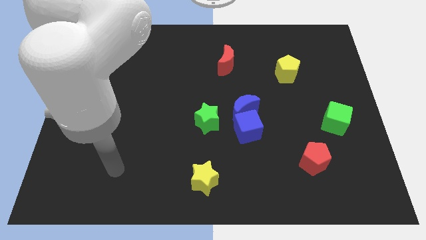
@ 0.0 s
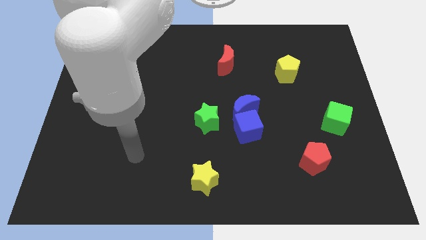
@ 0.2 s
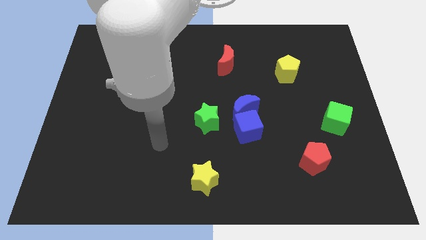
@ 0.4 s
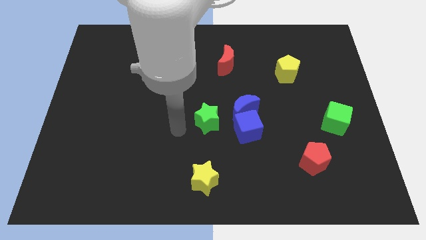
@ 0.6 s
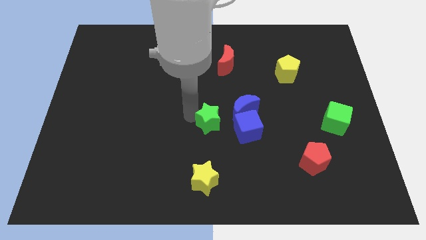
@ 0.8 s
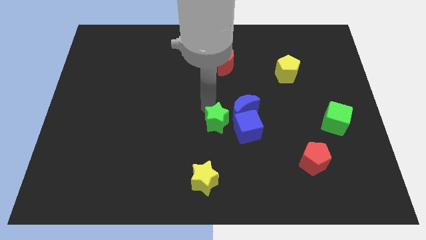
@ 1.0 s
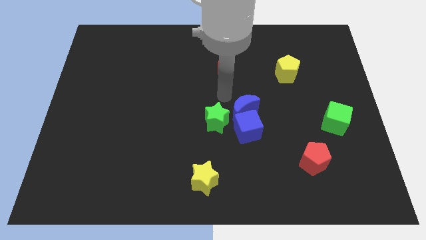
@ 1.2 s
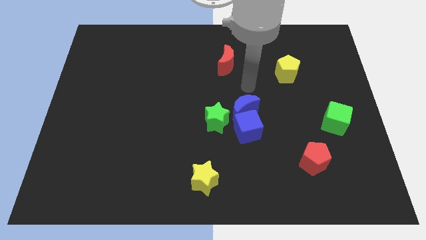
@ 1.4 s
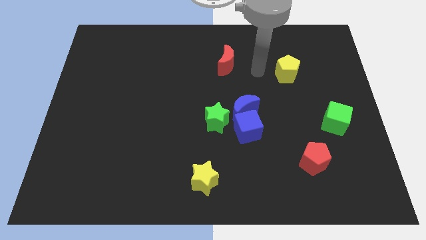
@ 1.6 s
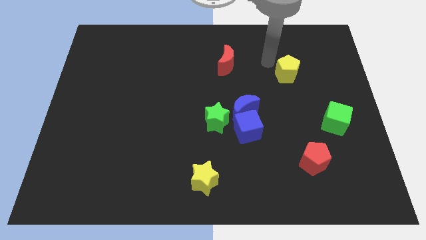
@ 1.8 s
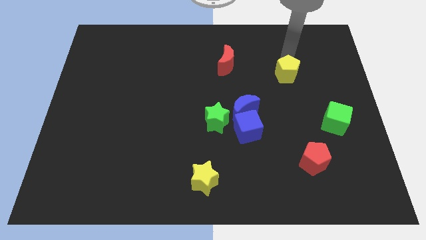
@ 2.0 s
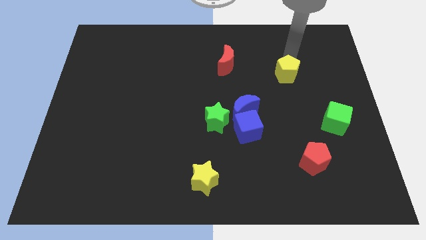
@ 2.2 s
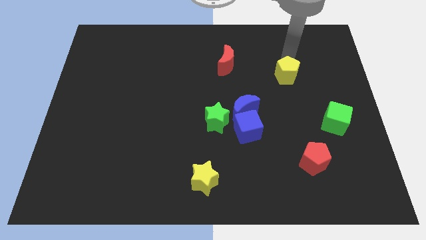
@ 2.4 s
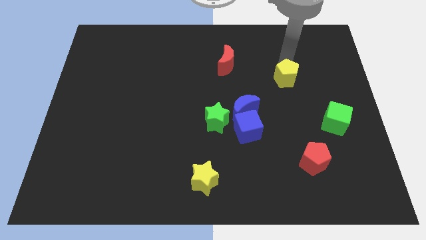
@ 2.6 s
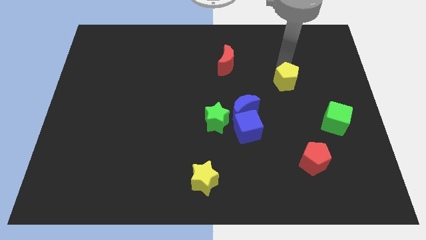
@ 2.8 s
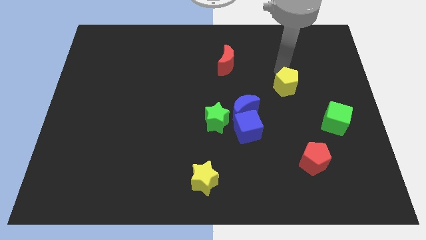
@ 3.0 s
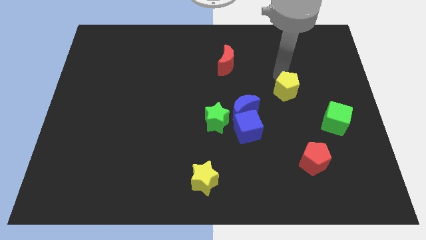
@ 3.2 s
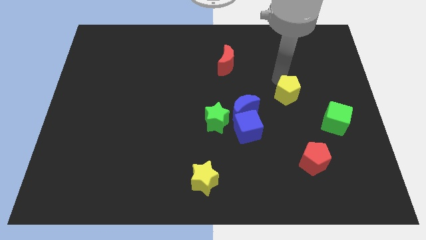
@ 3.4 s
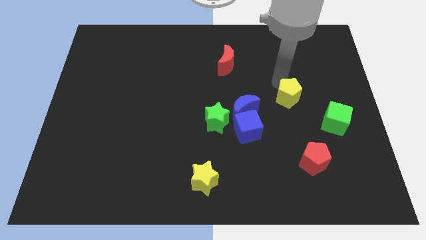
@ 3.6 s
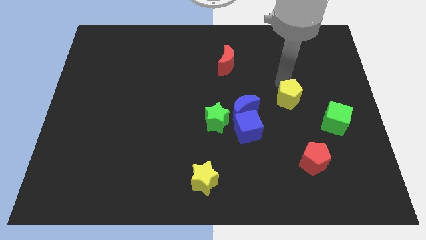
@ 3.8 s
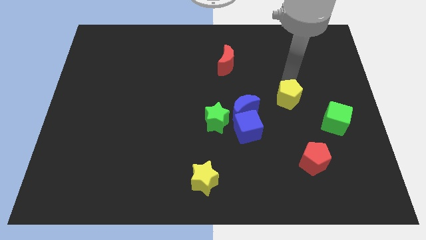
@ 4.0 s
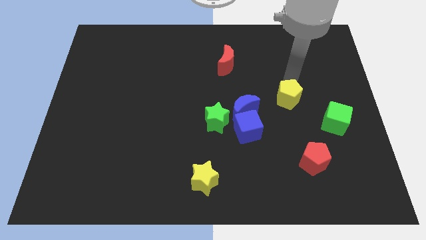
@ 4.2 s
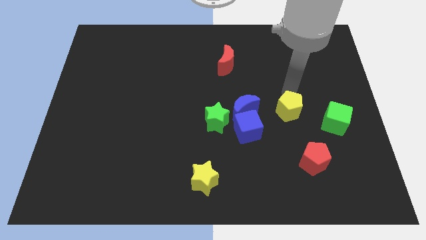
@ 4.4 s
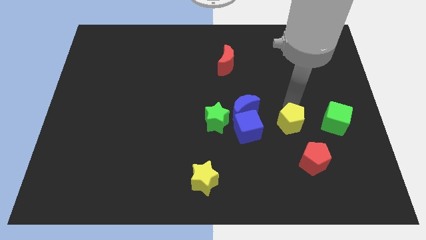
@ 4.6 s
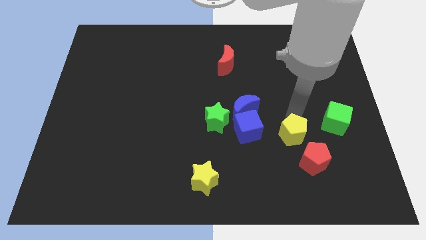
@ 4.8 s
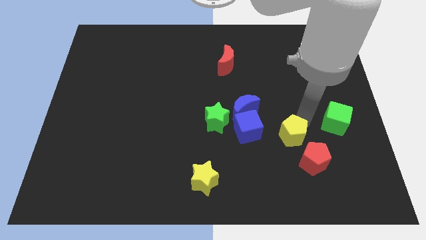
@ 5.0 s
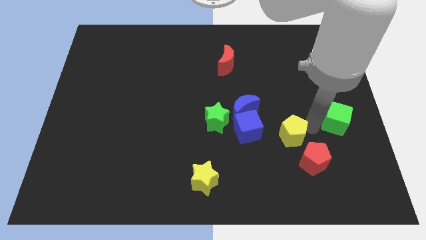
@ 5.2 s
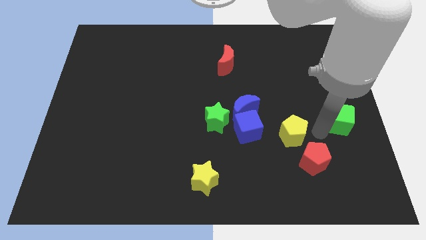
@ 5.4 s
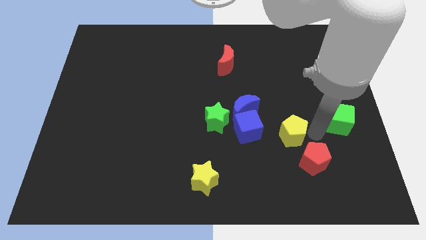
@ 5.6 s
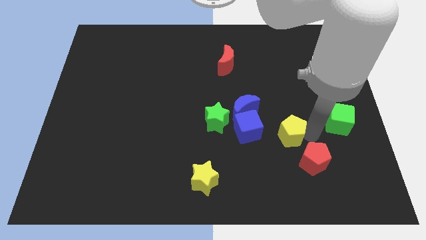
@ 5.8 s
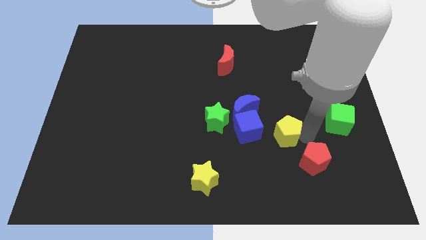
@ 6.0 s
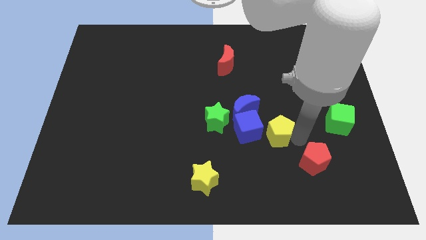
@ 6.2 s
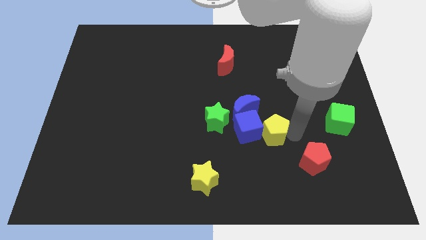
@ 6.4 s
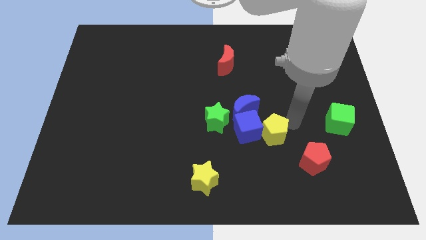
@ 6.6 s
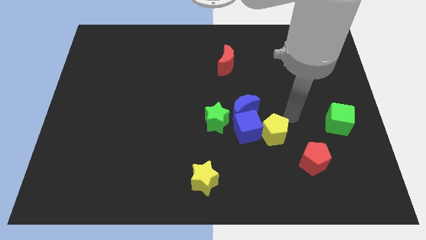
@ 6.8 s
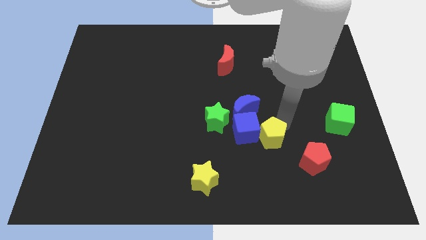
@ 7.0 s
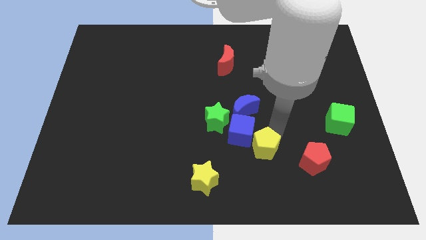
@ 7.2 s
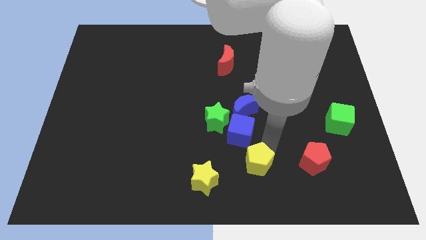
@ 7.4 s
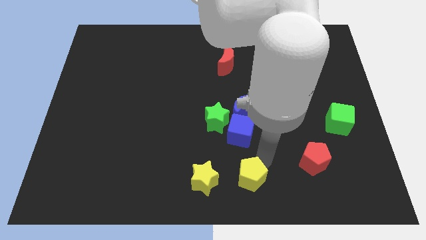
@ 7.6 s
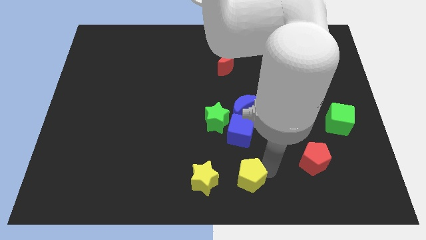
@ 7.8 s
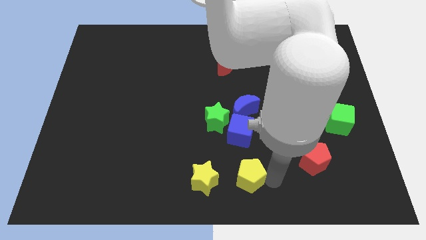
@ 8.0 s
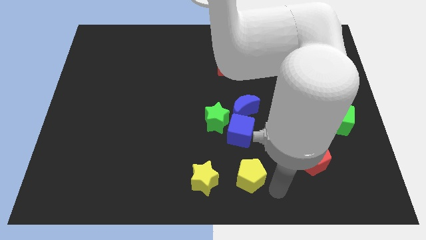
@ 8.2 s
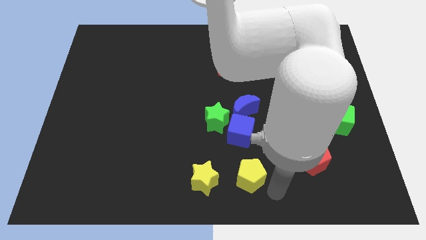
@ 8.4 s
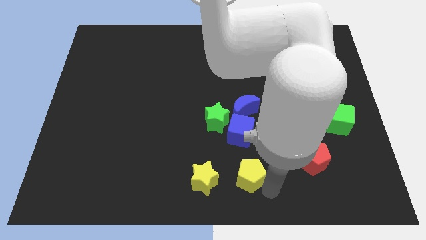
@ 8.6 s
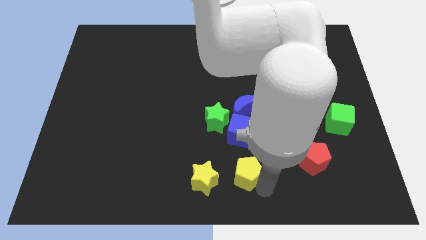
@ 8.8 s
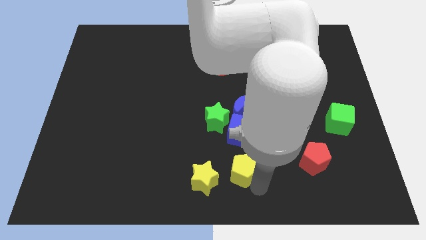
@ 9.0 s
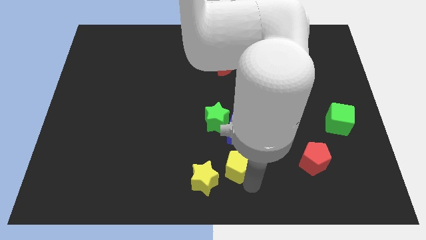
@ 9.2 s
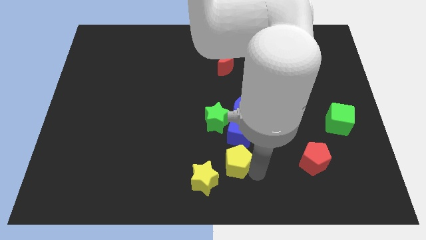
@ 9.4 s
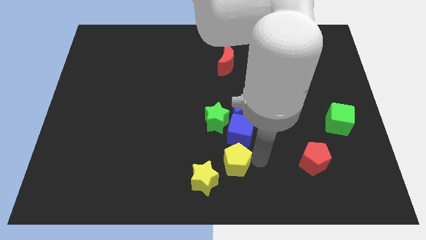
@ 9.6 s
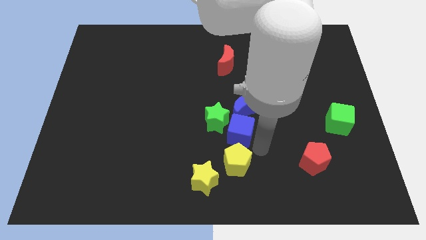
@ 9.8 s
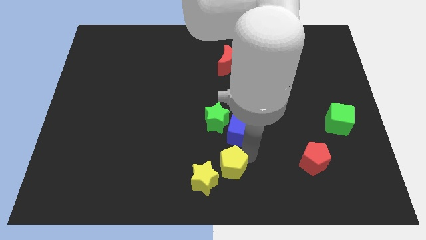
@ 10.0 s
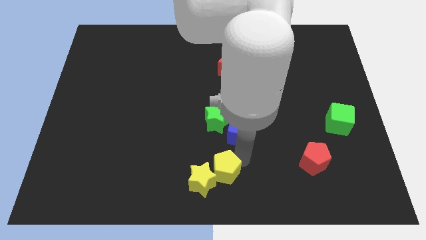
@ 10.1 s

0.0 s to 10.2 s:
slide the yellow pentagon close to the yellow star

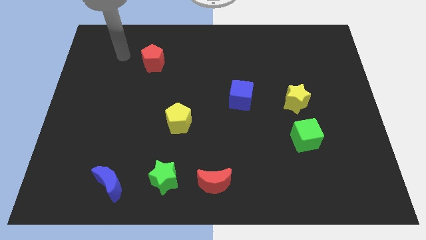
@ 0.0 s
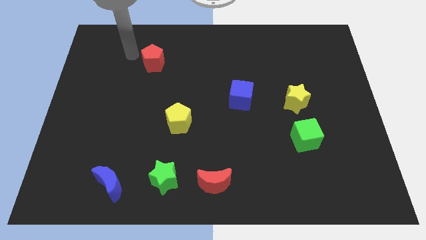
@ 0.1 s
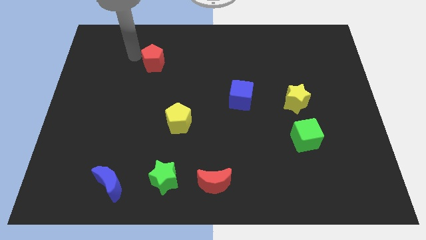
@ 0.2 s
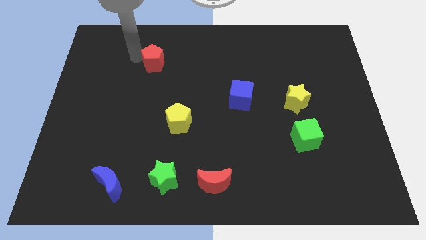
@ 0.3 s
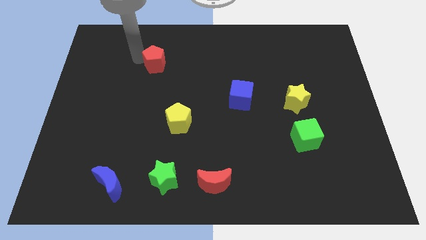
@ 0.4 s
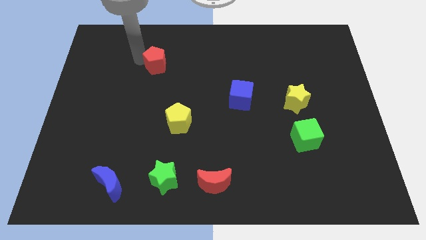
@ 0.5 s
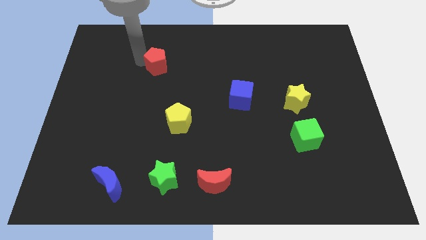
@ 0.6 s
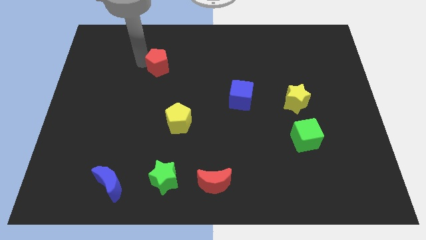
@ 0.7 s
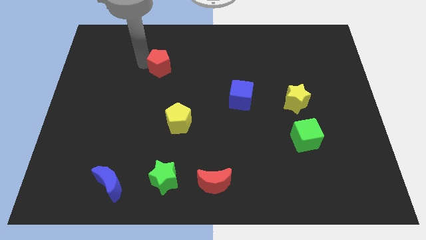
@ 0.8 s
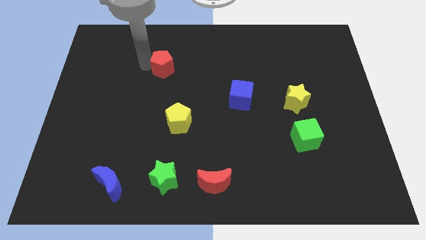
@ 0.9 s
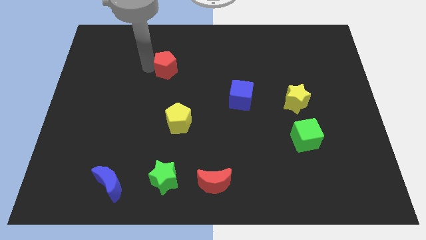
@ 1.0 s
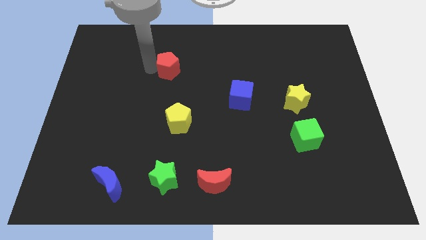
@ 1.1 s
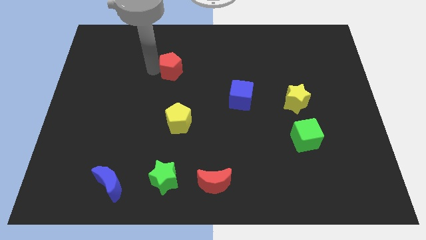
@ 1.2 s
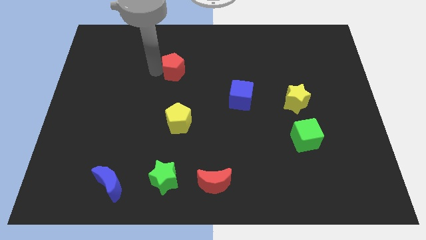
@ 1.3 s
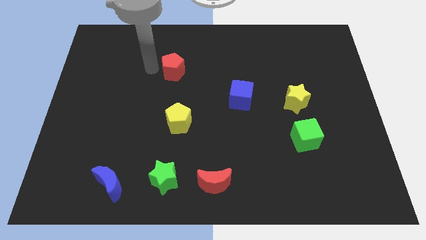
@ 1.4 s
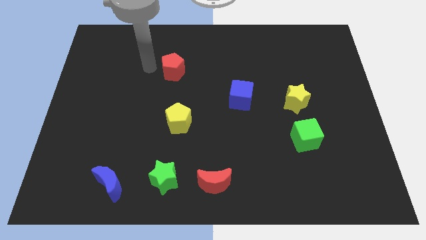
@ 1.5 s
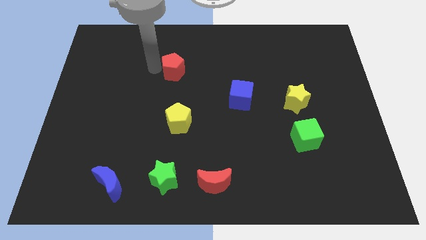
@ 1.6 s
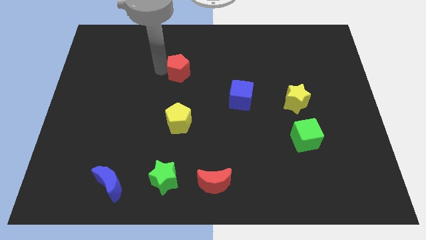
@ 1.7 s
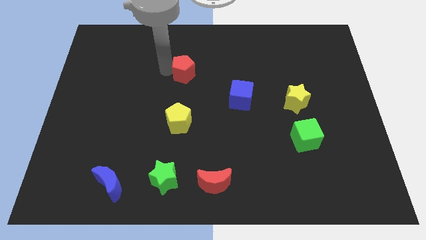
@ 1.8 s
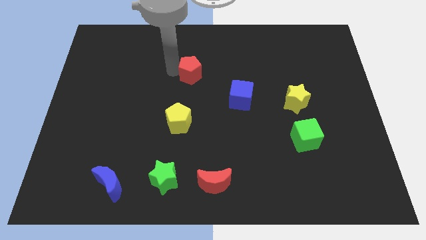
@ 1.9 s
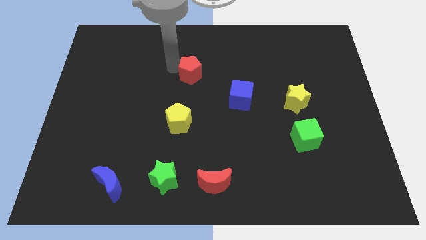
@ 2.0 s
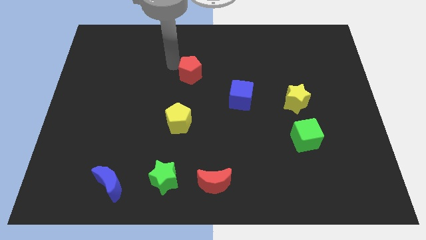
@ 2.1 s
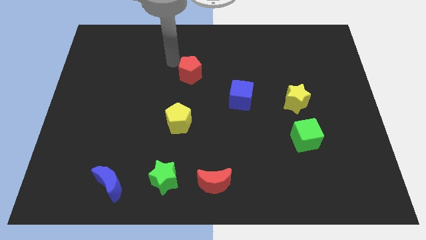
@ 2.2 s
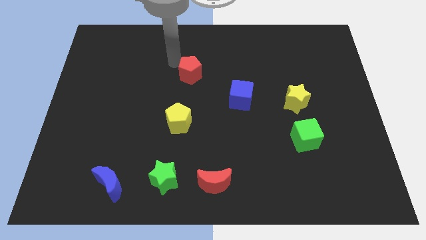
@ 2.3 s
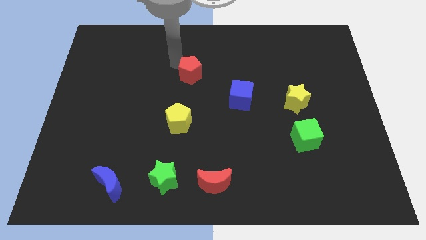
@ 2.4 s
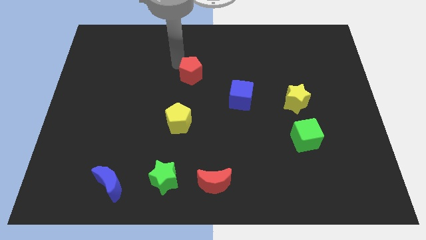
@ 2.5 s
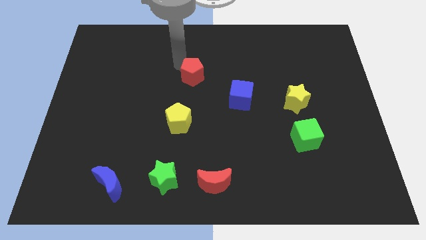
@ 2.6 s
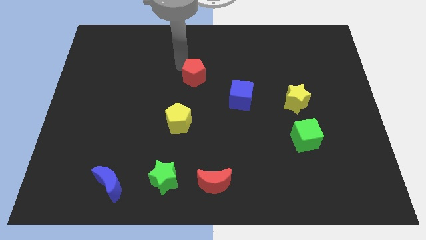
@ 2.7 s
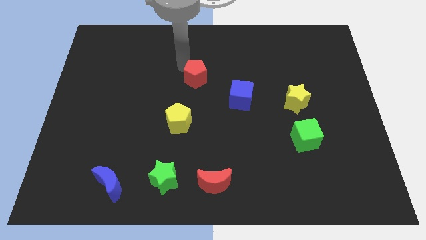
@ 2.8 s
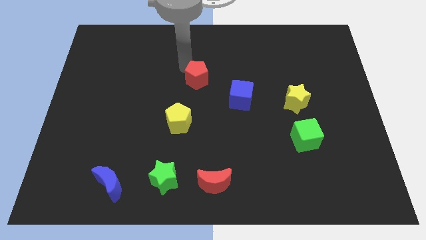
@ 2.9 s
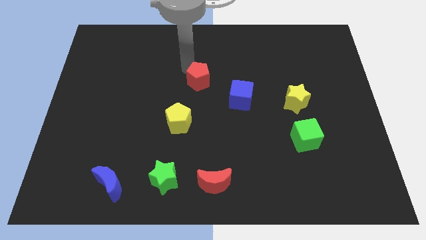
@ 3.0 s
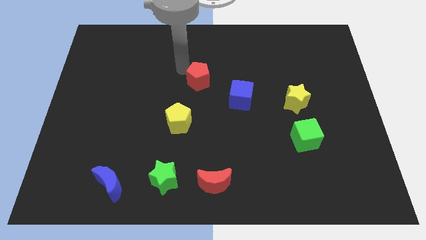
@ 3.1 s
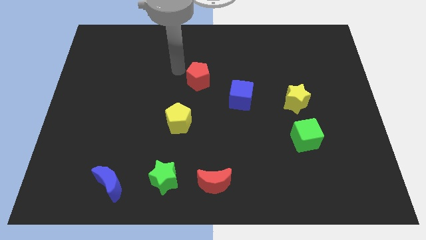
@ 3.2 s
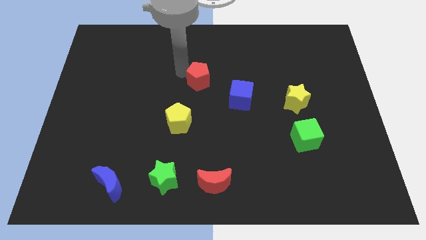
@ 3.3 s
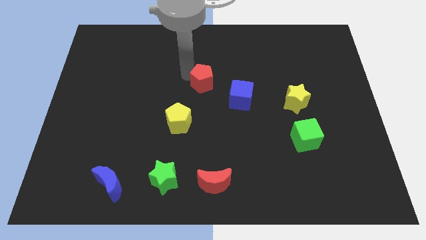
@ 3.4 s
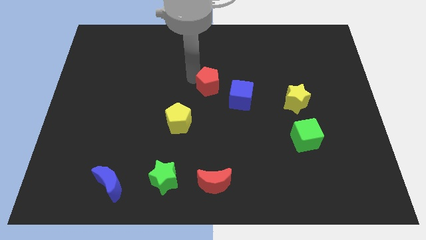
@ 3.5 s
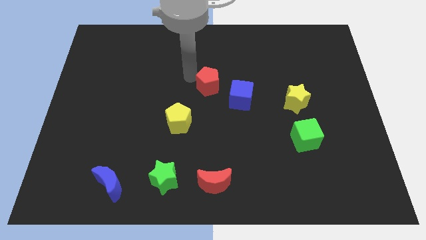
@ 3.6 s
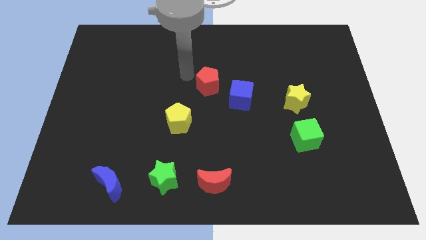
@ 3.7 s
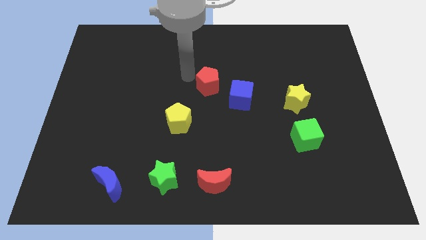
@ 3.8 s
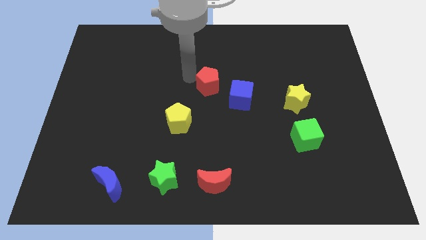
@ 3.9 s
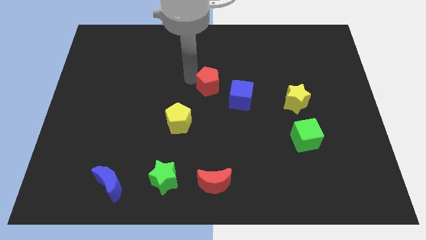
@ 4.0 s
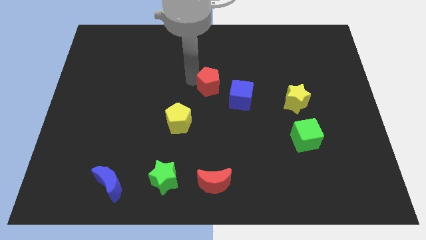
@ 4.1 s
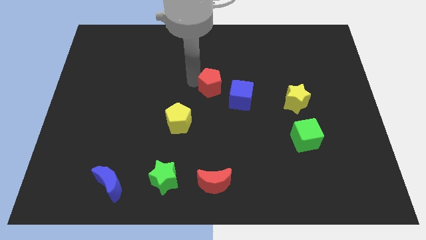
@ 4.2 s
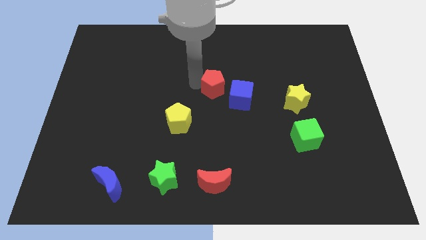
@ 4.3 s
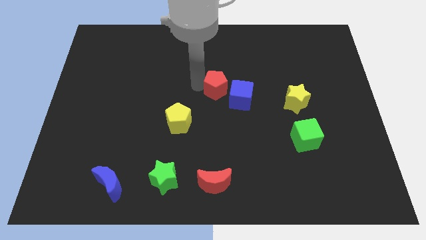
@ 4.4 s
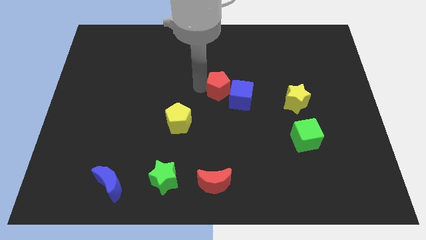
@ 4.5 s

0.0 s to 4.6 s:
slide the red pentagon close to the blue cube
